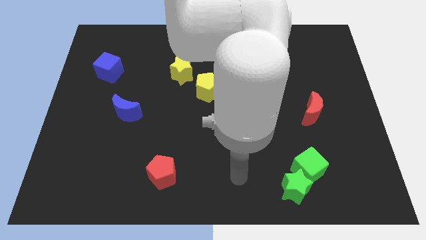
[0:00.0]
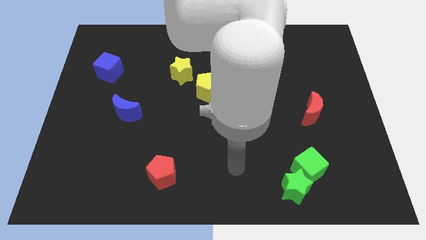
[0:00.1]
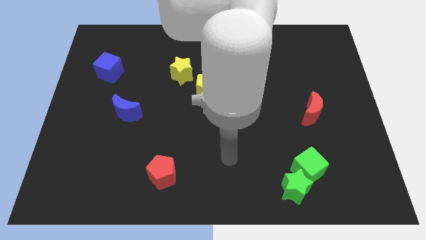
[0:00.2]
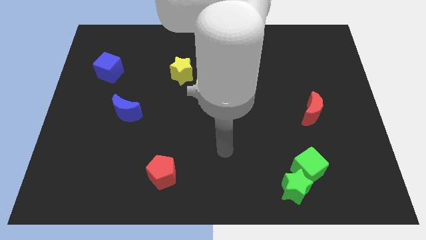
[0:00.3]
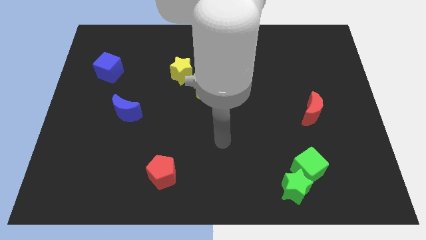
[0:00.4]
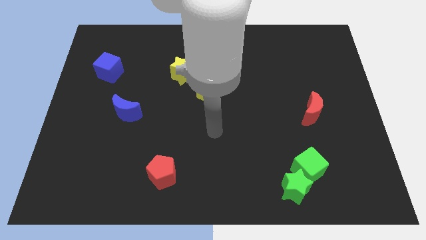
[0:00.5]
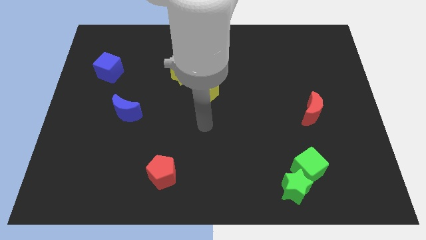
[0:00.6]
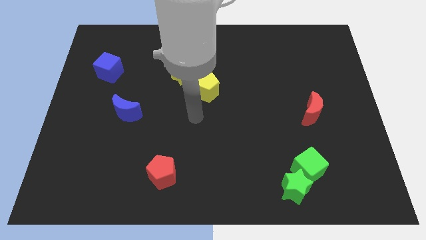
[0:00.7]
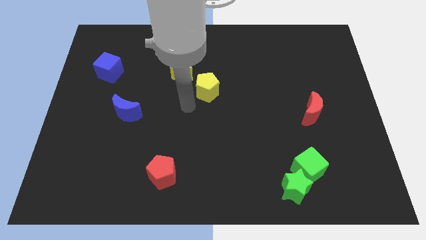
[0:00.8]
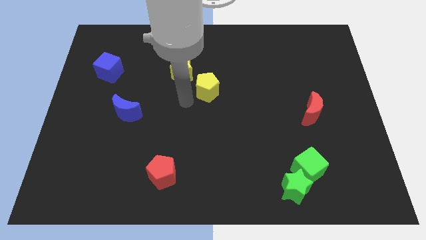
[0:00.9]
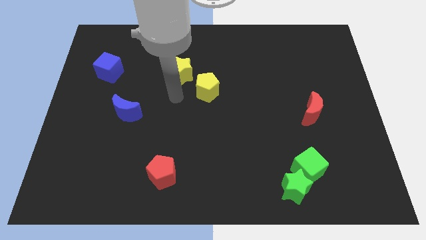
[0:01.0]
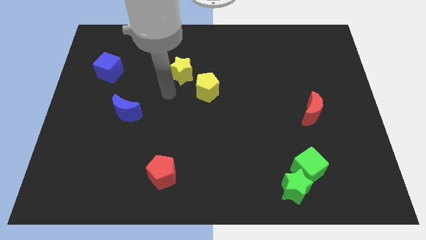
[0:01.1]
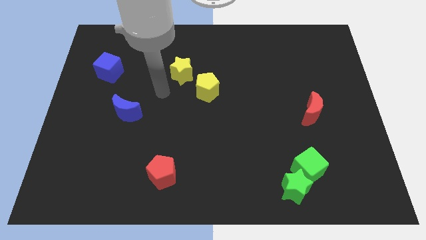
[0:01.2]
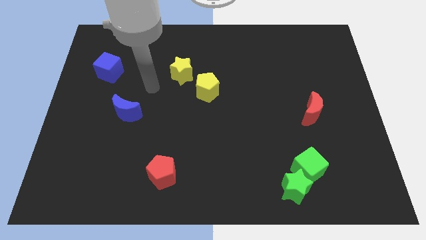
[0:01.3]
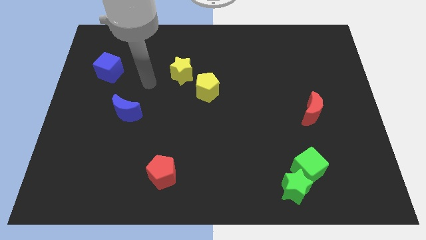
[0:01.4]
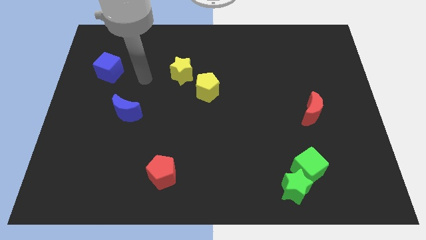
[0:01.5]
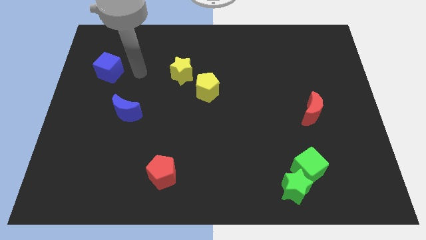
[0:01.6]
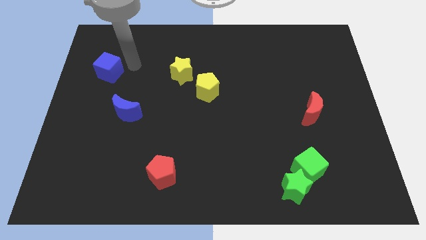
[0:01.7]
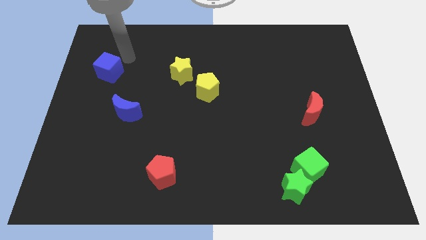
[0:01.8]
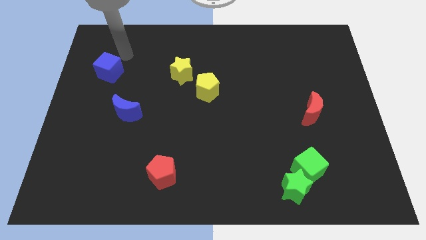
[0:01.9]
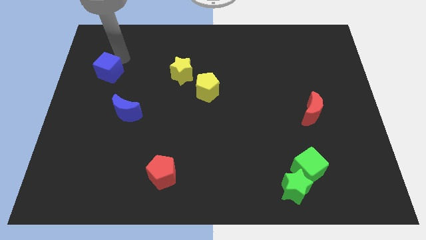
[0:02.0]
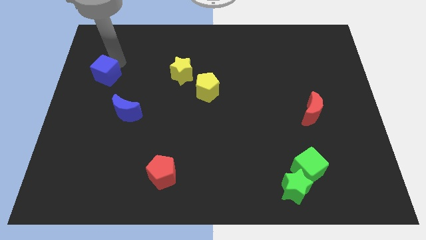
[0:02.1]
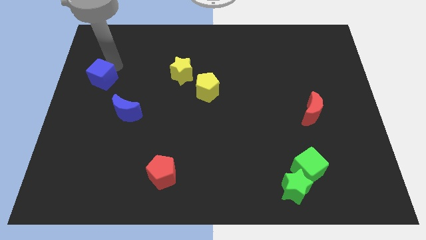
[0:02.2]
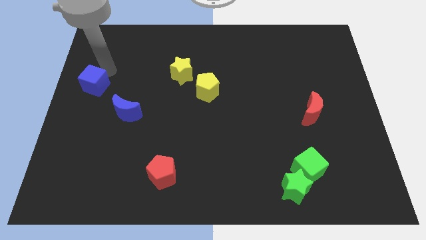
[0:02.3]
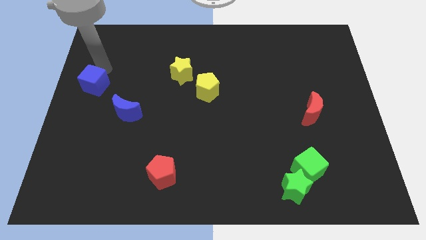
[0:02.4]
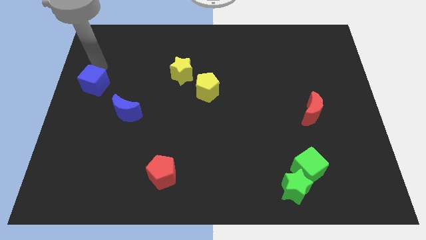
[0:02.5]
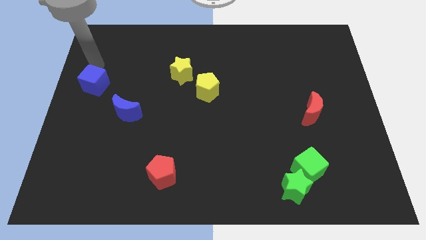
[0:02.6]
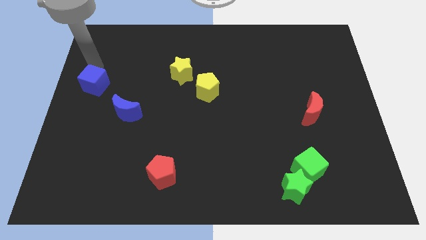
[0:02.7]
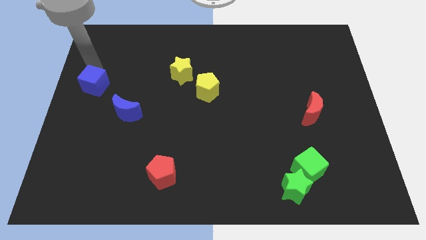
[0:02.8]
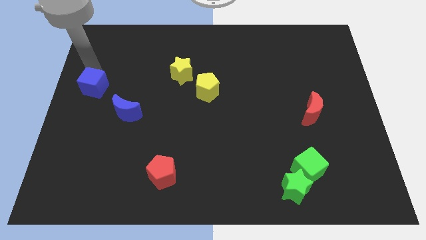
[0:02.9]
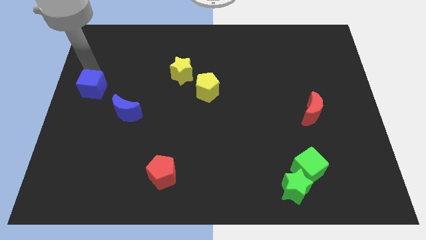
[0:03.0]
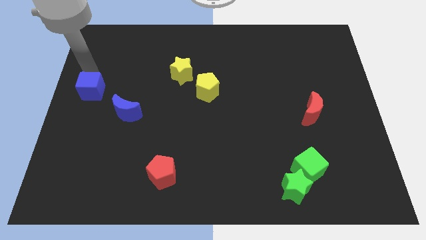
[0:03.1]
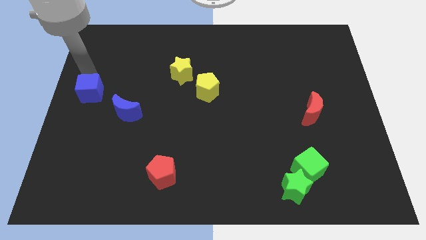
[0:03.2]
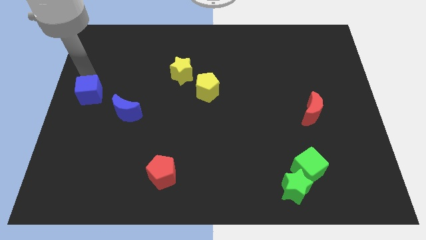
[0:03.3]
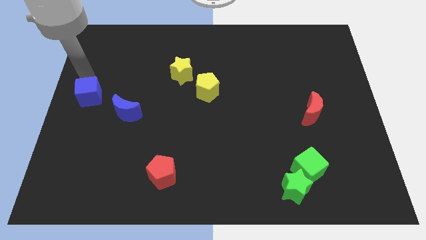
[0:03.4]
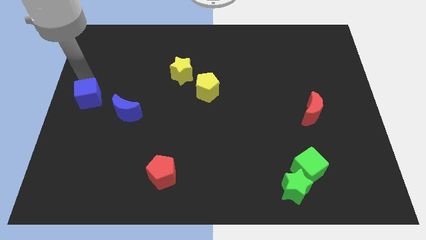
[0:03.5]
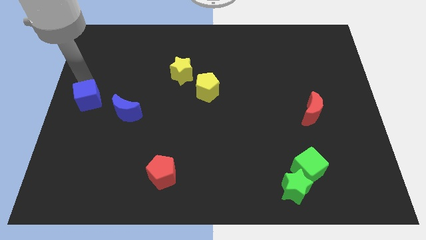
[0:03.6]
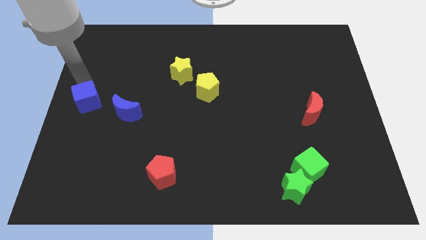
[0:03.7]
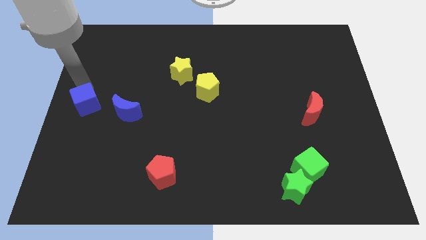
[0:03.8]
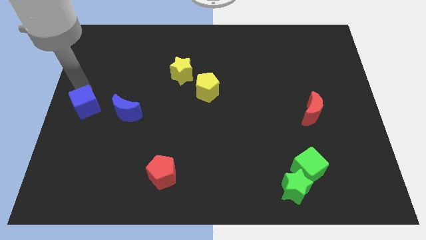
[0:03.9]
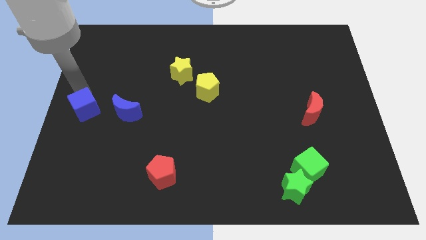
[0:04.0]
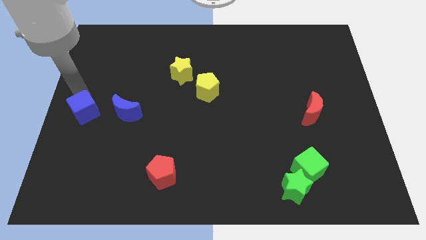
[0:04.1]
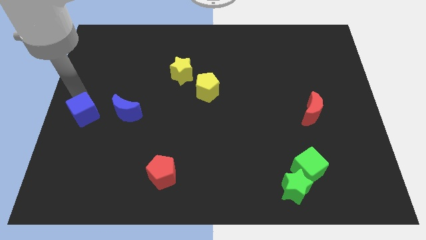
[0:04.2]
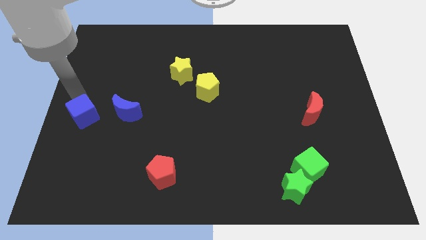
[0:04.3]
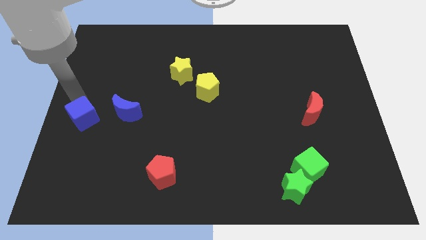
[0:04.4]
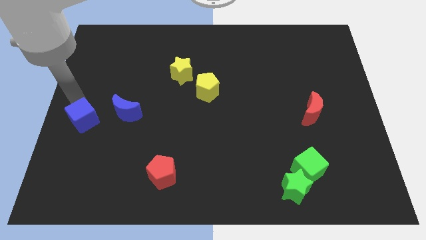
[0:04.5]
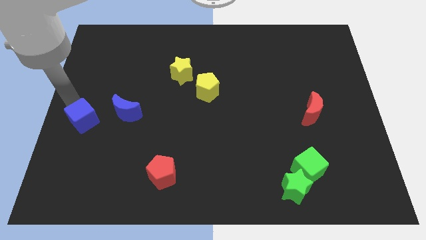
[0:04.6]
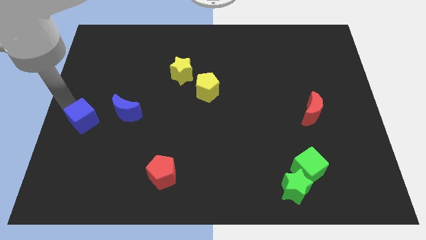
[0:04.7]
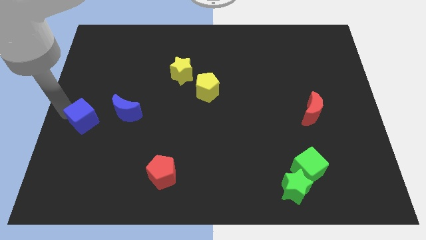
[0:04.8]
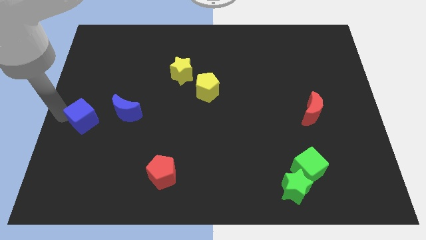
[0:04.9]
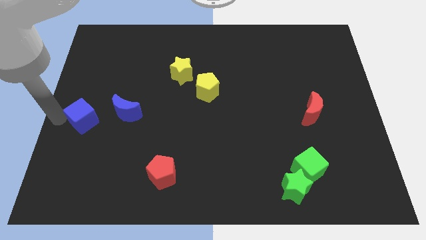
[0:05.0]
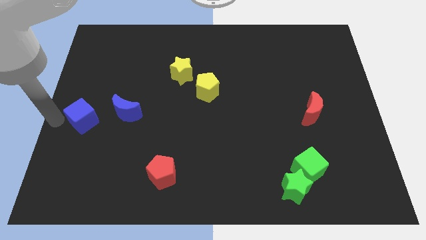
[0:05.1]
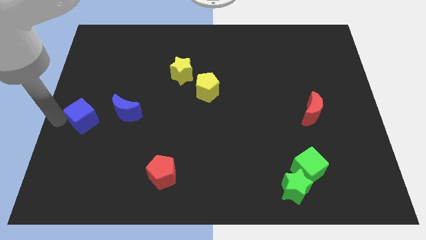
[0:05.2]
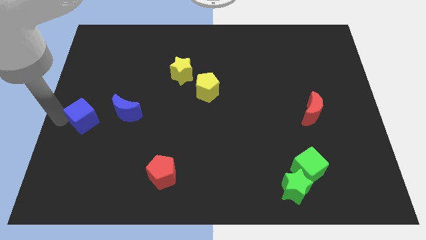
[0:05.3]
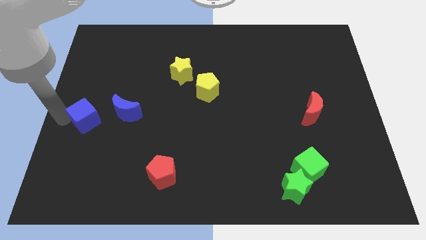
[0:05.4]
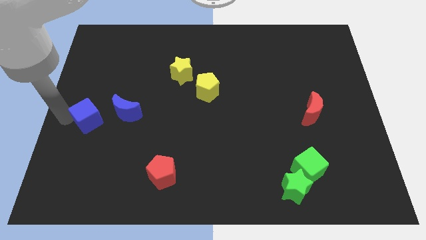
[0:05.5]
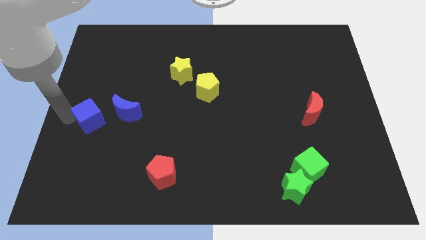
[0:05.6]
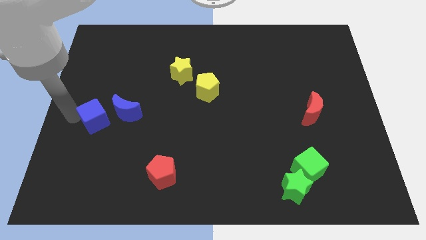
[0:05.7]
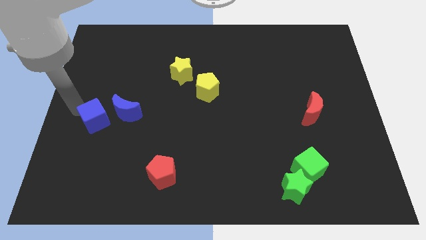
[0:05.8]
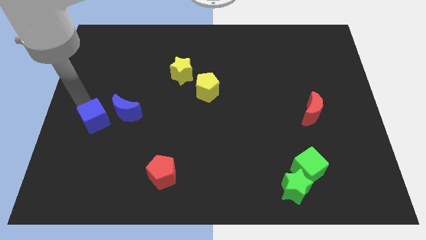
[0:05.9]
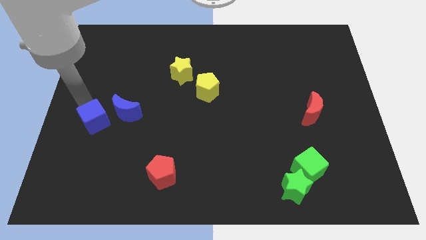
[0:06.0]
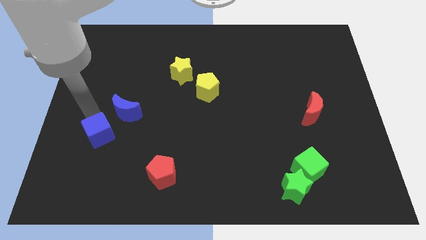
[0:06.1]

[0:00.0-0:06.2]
put the blue cube to the bottom side of the blue moon

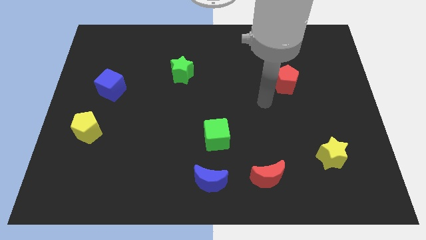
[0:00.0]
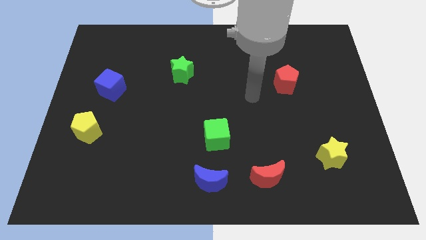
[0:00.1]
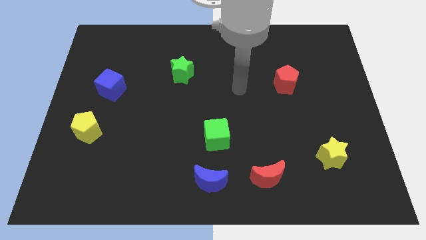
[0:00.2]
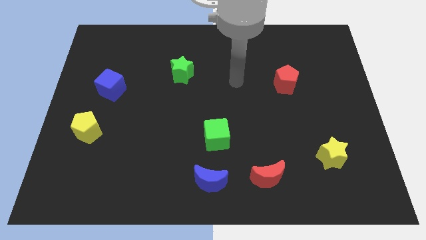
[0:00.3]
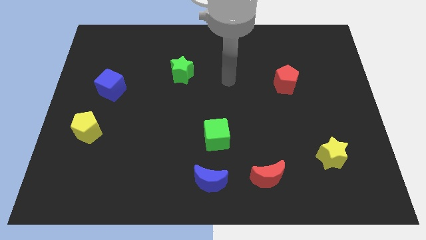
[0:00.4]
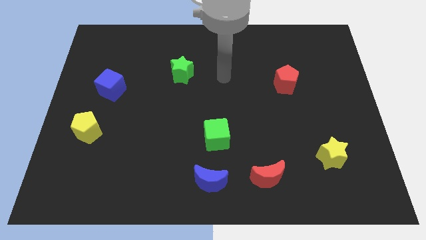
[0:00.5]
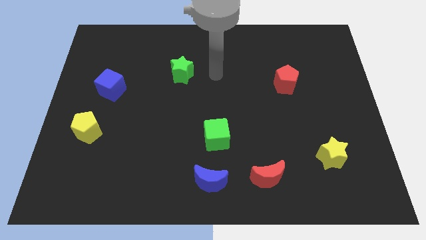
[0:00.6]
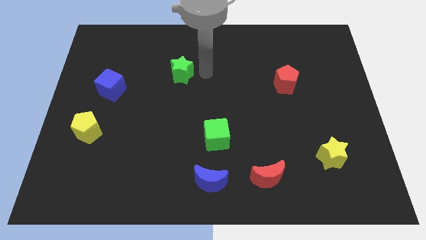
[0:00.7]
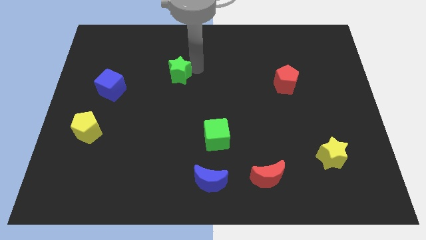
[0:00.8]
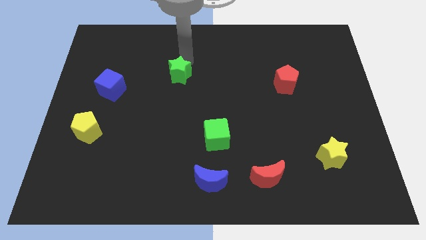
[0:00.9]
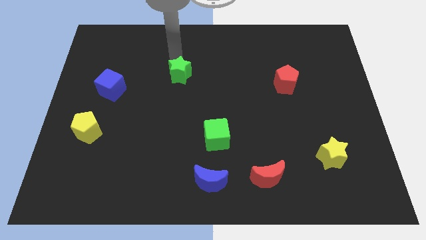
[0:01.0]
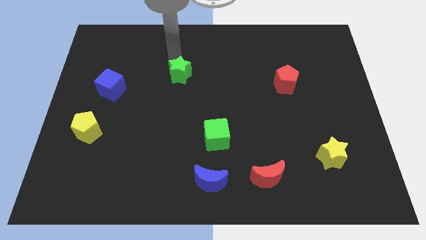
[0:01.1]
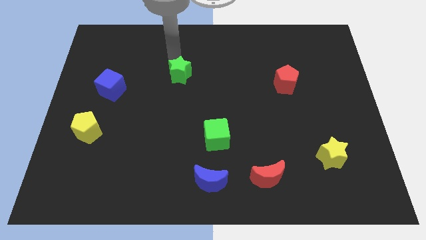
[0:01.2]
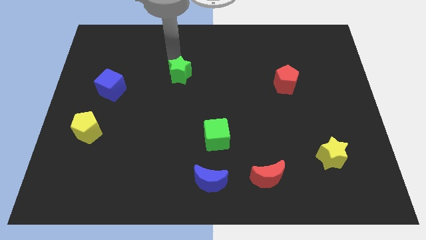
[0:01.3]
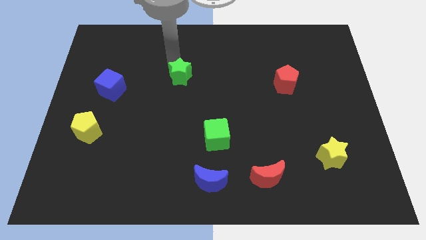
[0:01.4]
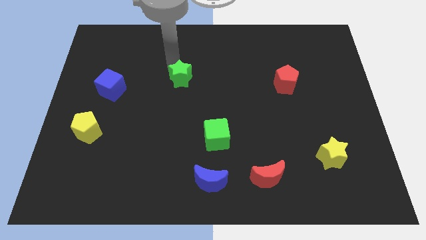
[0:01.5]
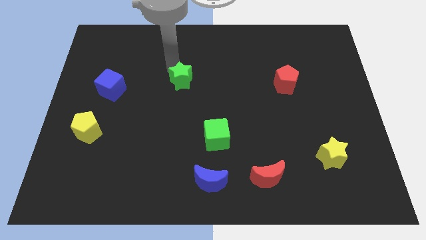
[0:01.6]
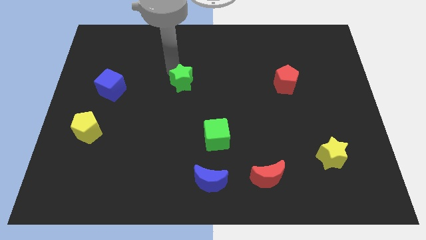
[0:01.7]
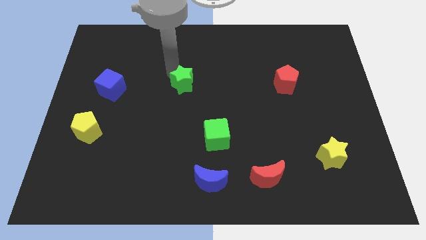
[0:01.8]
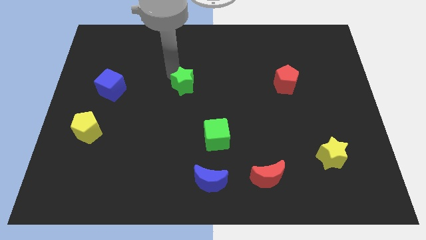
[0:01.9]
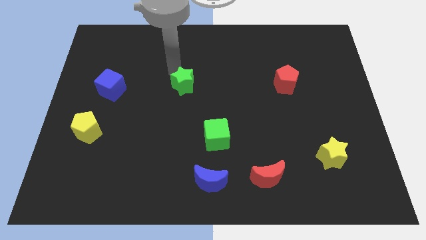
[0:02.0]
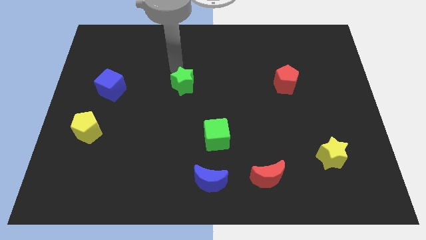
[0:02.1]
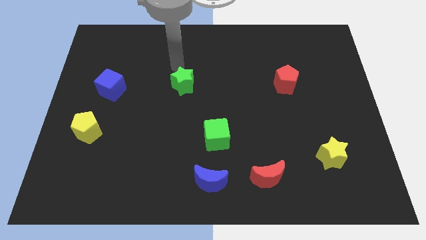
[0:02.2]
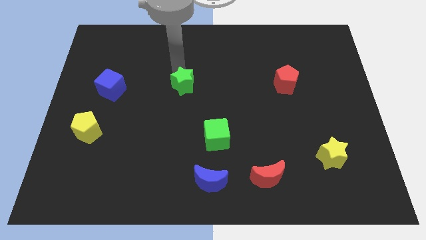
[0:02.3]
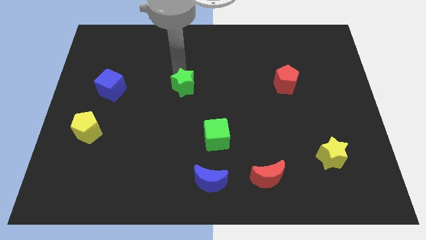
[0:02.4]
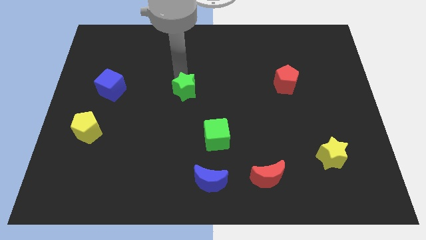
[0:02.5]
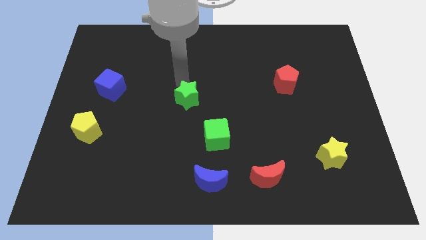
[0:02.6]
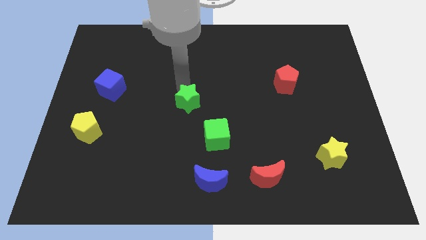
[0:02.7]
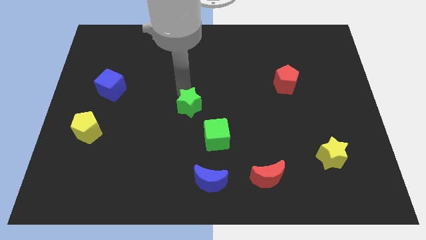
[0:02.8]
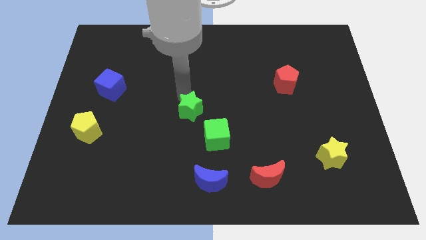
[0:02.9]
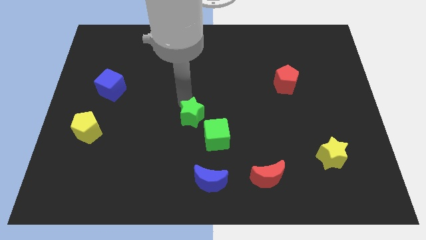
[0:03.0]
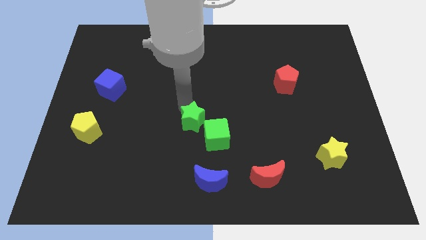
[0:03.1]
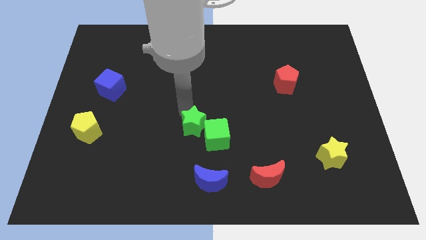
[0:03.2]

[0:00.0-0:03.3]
move the green star to the top side of the blue moon
